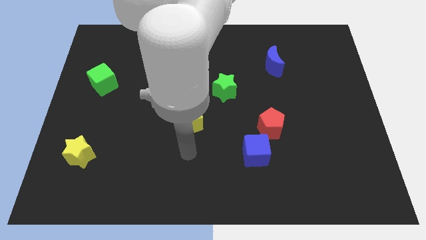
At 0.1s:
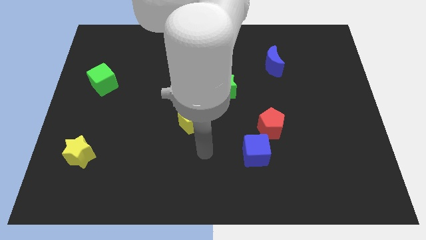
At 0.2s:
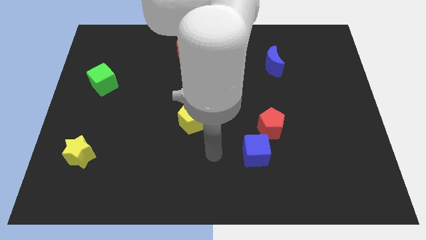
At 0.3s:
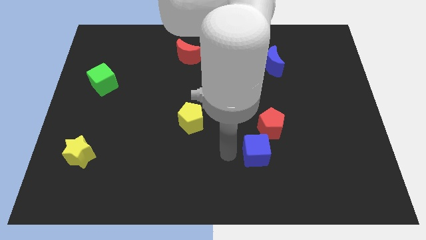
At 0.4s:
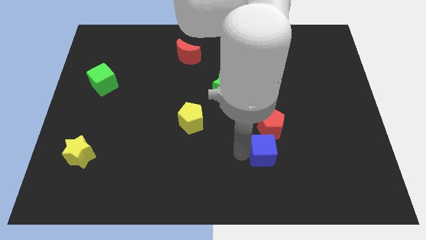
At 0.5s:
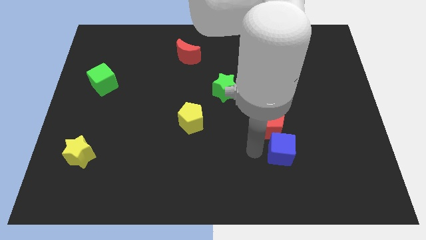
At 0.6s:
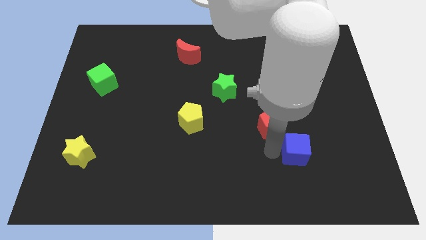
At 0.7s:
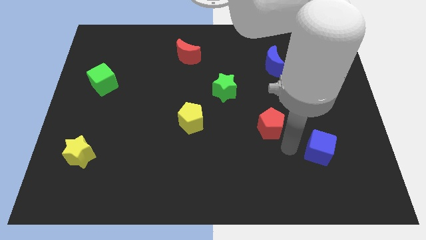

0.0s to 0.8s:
separate the red pentagon from the blue cube

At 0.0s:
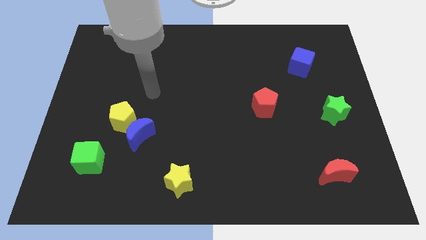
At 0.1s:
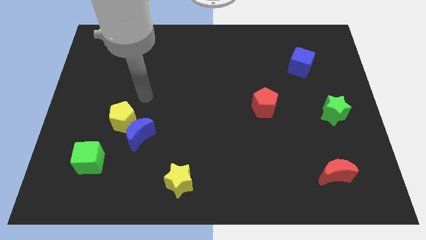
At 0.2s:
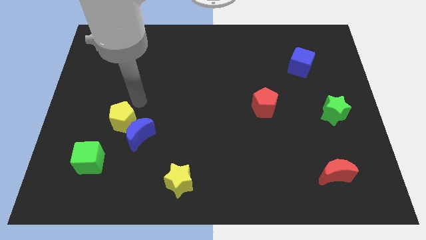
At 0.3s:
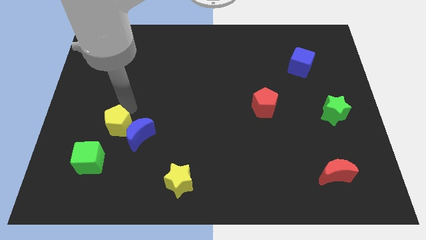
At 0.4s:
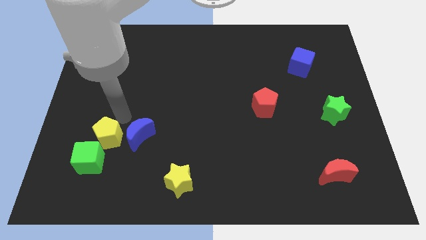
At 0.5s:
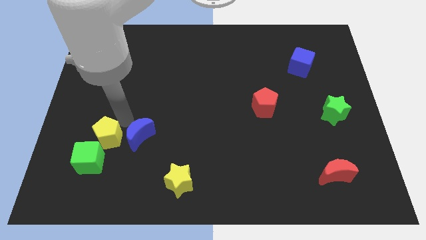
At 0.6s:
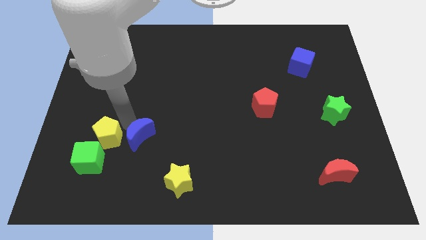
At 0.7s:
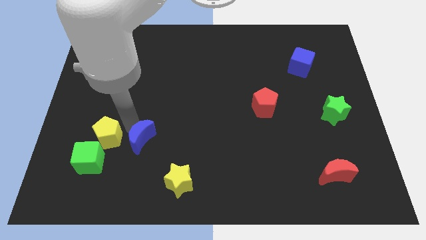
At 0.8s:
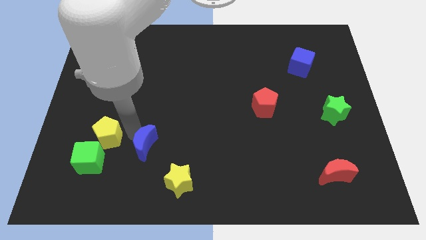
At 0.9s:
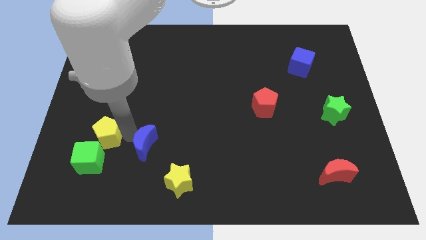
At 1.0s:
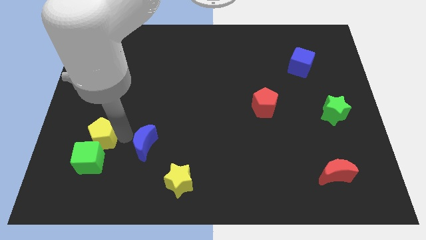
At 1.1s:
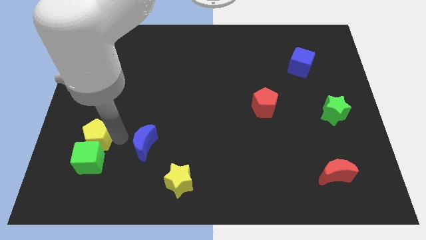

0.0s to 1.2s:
pull the blue moon apart from the yellow pentagon

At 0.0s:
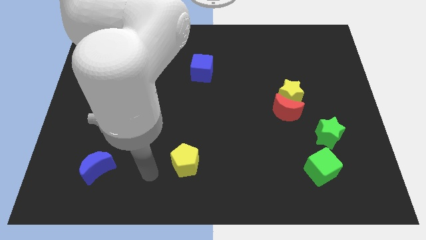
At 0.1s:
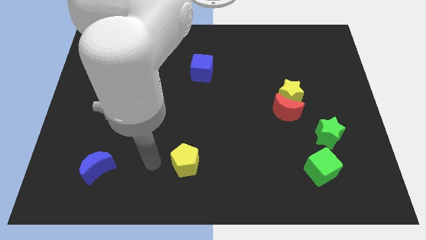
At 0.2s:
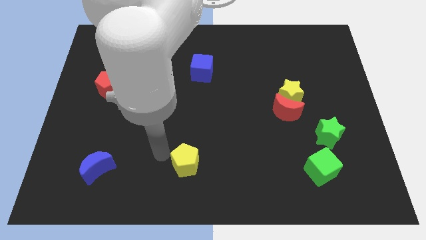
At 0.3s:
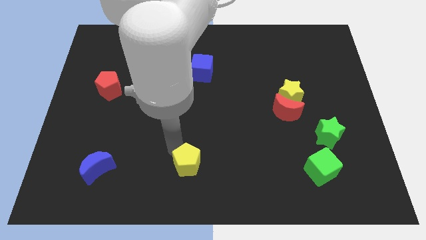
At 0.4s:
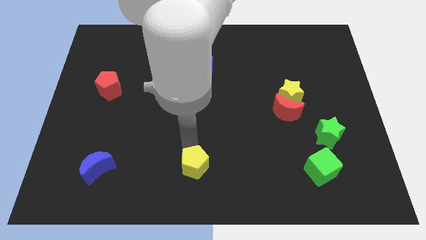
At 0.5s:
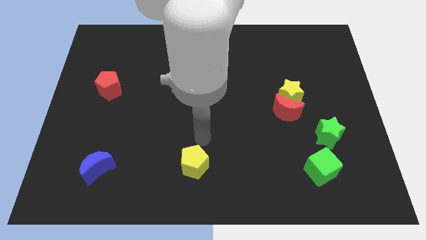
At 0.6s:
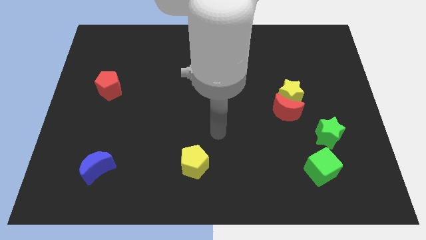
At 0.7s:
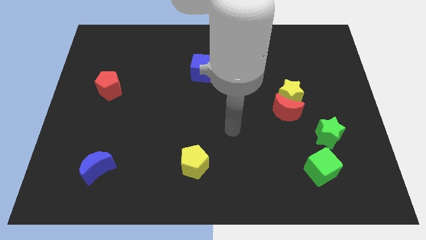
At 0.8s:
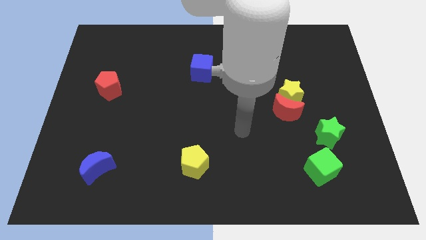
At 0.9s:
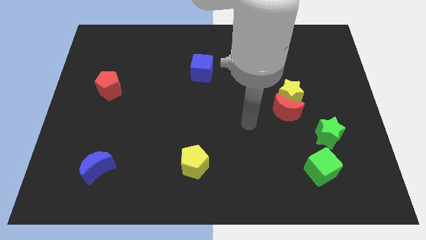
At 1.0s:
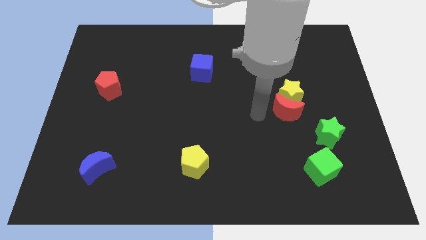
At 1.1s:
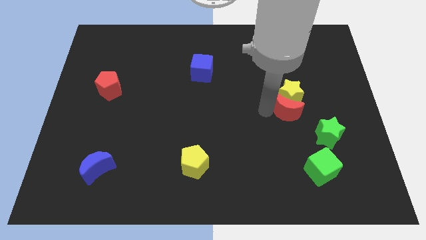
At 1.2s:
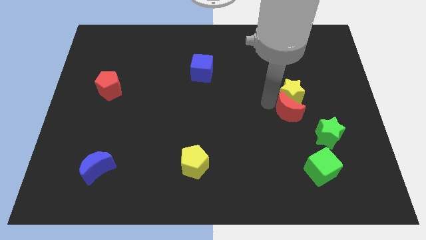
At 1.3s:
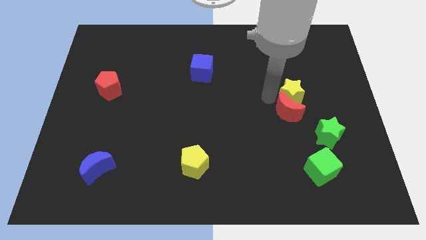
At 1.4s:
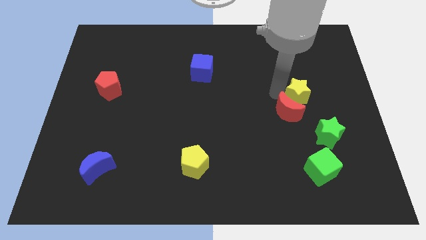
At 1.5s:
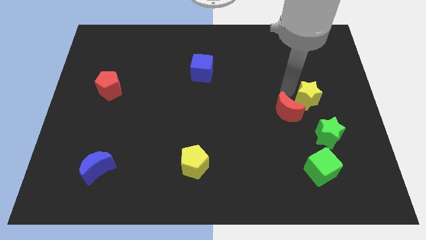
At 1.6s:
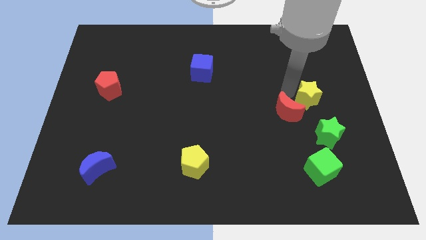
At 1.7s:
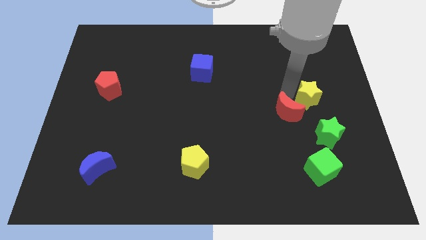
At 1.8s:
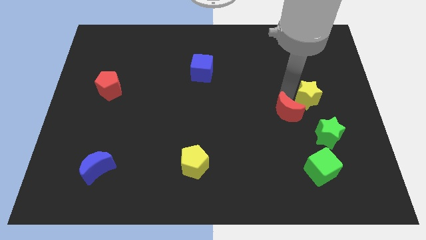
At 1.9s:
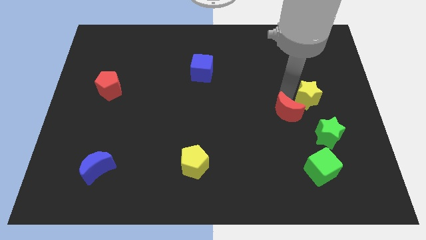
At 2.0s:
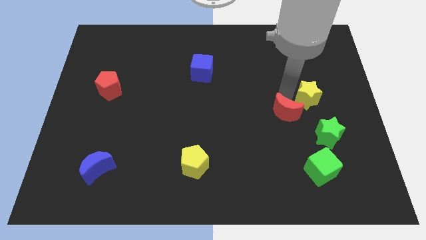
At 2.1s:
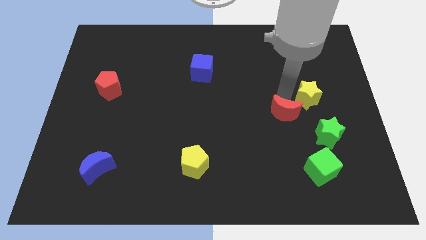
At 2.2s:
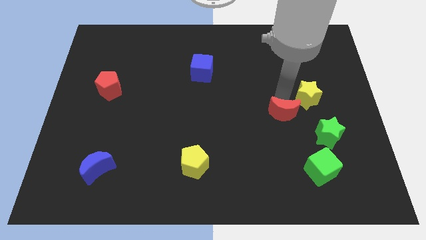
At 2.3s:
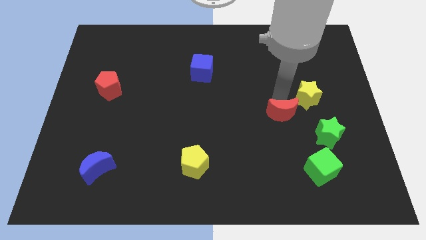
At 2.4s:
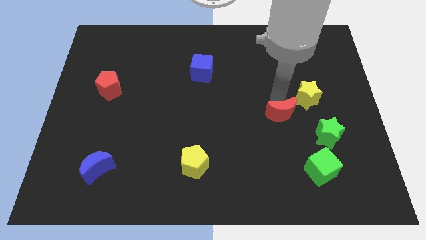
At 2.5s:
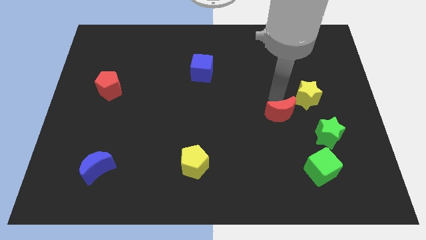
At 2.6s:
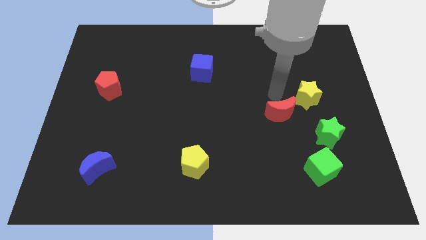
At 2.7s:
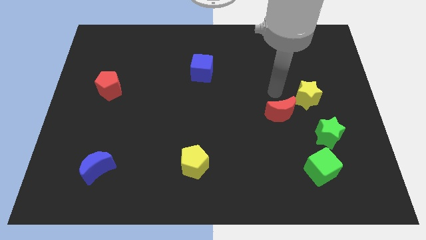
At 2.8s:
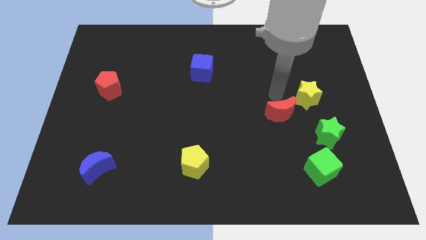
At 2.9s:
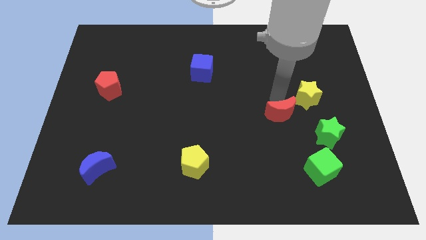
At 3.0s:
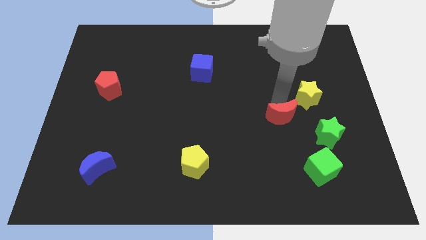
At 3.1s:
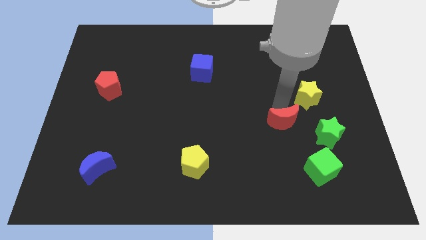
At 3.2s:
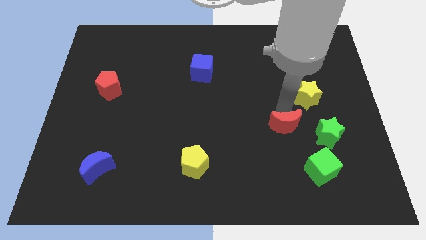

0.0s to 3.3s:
separate the red moon from the yellow star

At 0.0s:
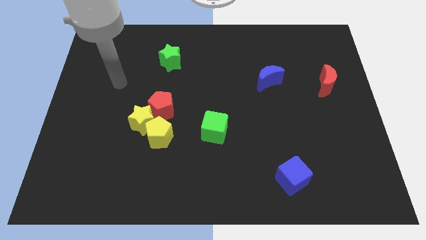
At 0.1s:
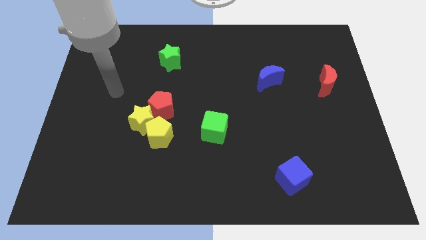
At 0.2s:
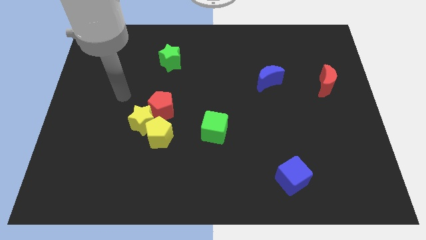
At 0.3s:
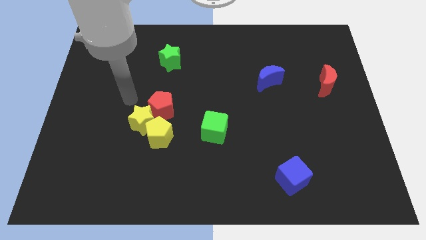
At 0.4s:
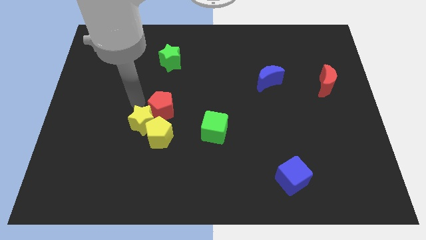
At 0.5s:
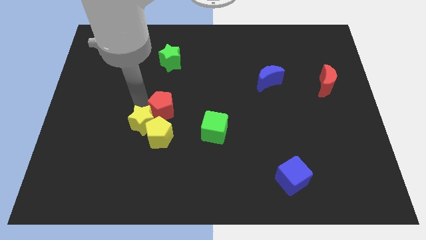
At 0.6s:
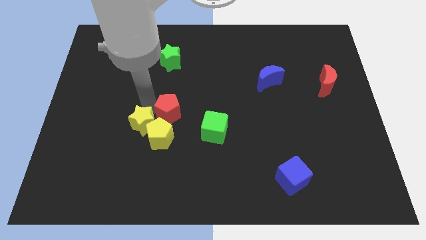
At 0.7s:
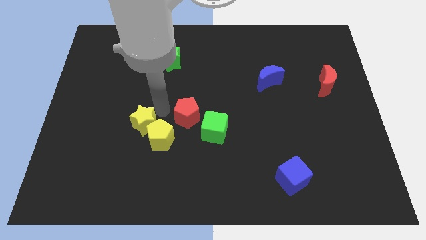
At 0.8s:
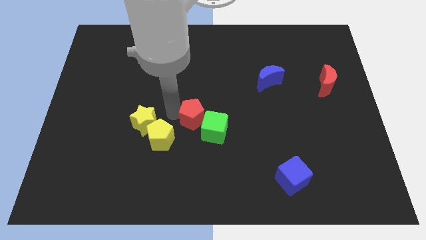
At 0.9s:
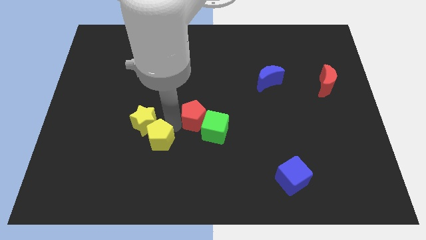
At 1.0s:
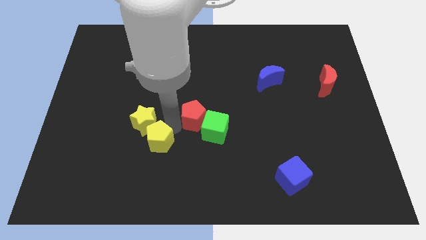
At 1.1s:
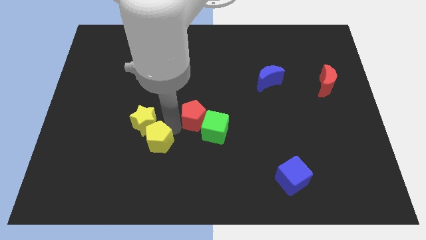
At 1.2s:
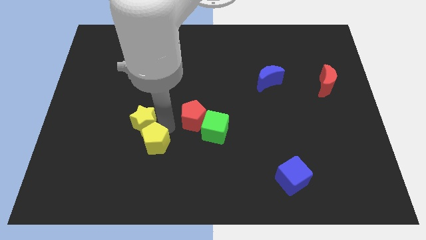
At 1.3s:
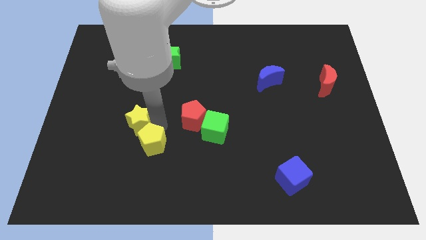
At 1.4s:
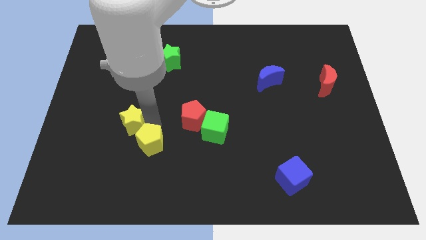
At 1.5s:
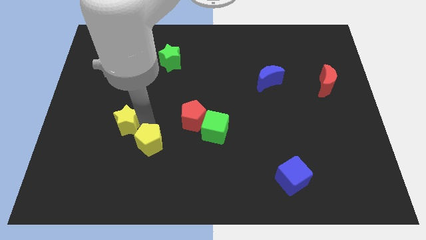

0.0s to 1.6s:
move the yellow star away from the yellow pentagon and red pentagon

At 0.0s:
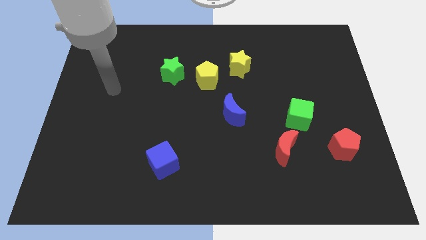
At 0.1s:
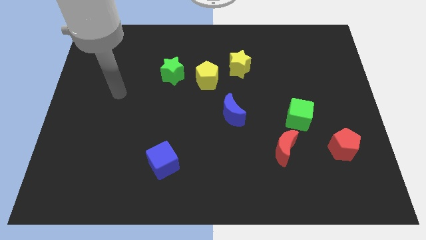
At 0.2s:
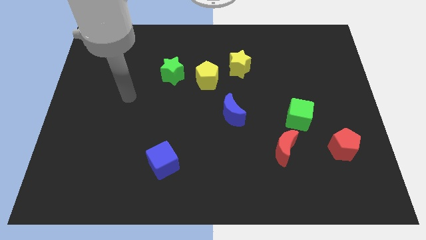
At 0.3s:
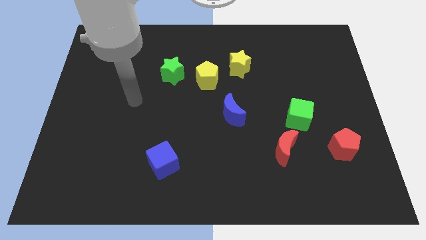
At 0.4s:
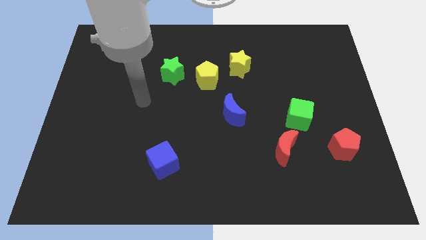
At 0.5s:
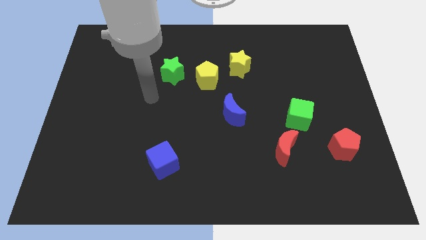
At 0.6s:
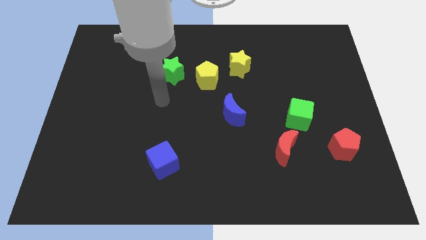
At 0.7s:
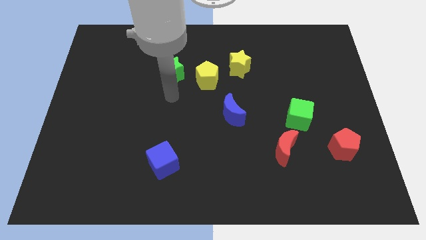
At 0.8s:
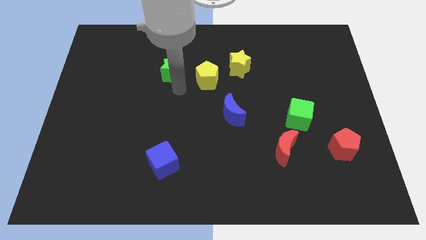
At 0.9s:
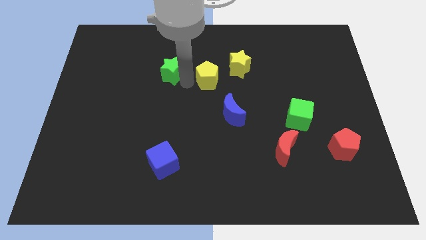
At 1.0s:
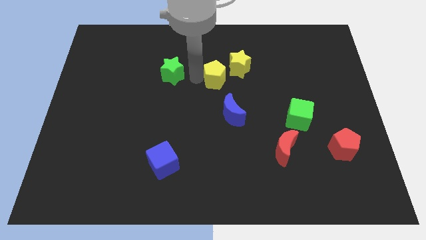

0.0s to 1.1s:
separate the green star from the yellow pentagon

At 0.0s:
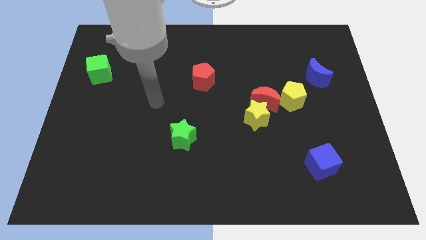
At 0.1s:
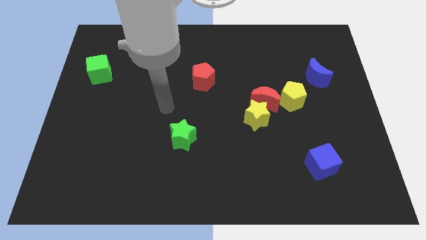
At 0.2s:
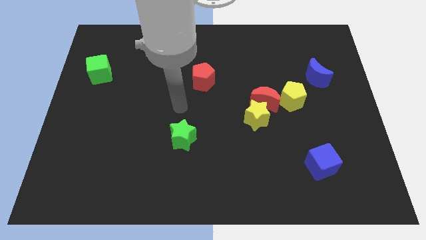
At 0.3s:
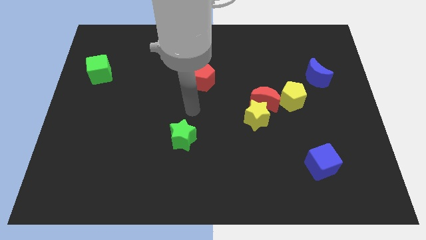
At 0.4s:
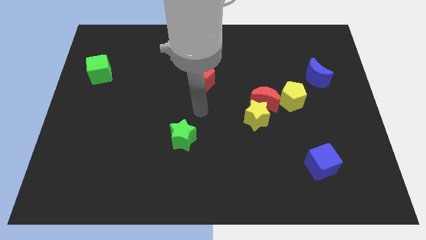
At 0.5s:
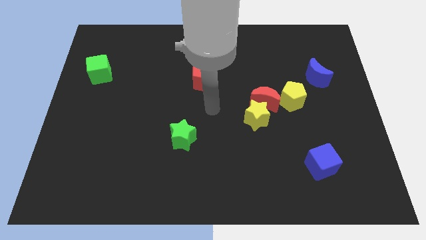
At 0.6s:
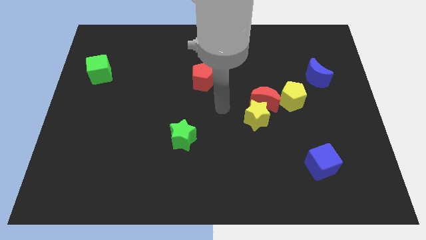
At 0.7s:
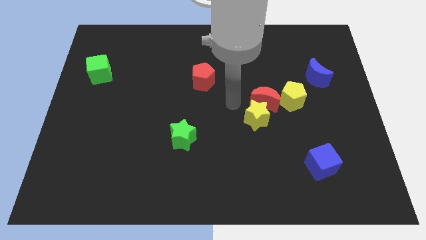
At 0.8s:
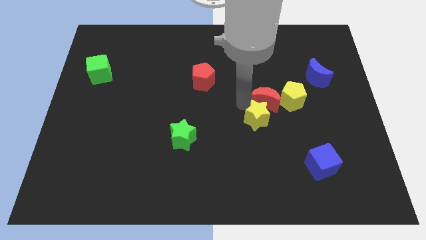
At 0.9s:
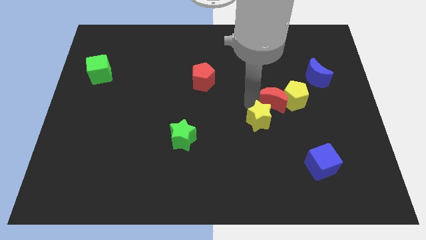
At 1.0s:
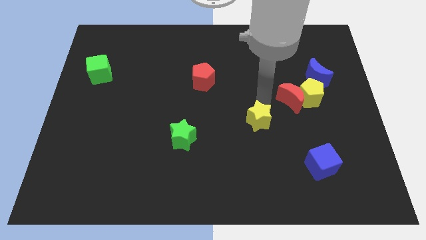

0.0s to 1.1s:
separate the yellow star from the red moon

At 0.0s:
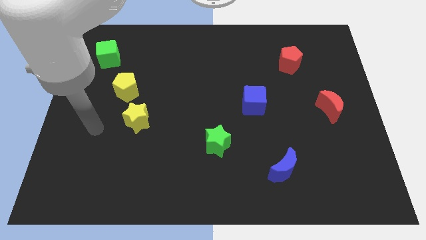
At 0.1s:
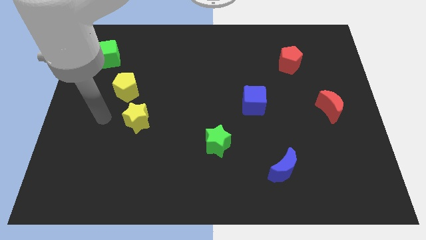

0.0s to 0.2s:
separate the yellow star from the yellow pentagon
